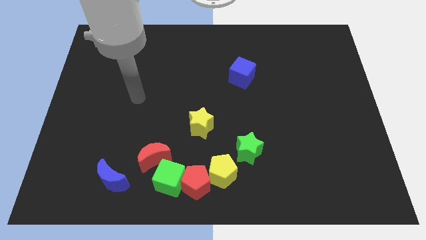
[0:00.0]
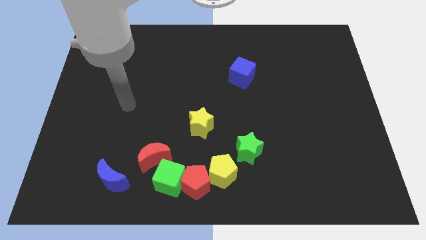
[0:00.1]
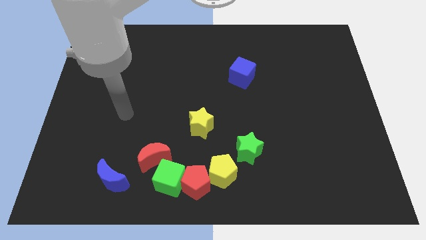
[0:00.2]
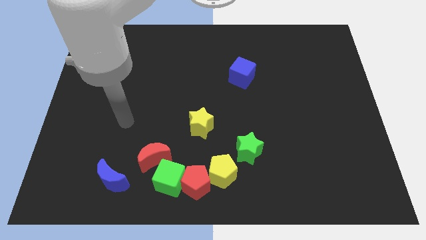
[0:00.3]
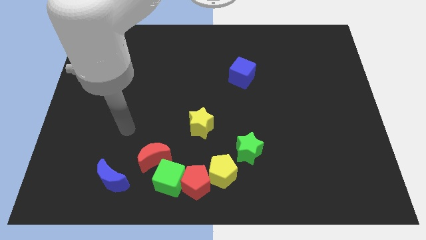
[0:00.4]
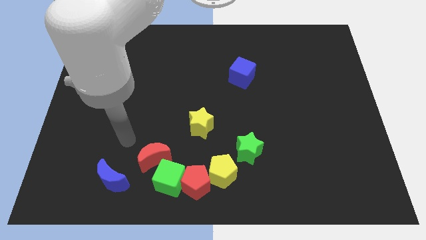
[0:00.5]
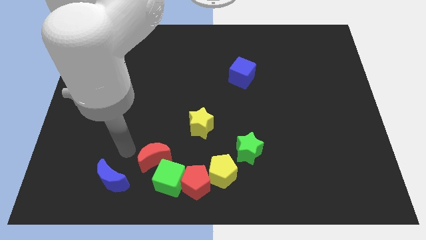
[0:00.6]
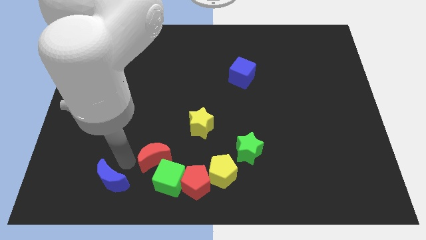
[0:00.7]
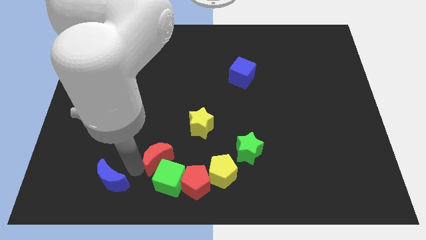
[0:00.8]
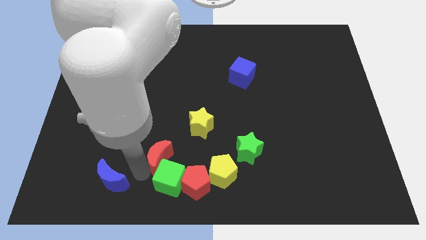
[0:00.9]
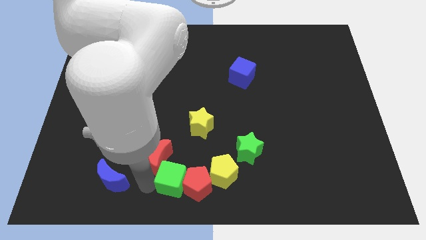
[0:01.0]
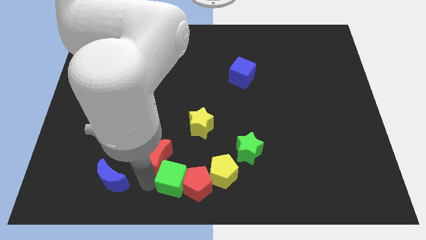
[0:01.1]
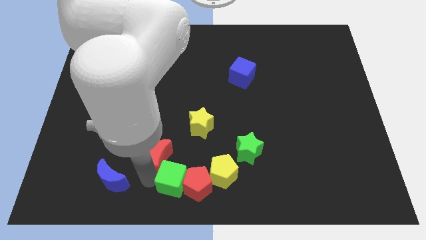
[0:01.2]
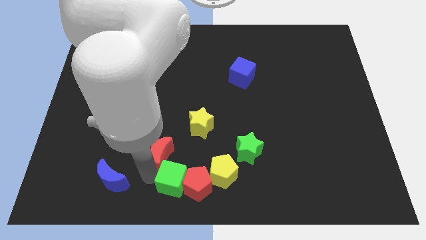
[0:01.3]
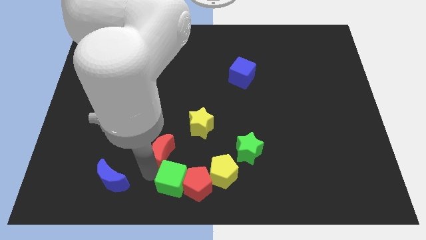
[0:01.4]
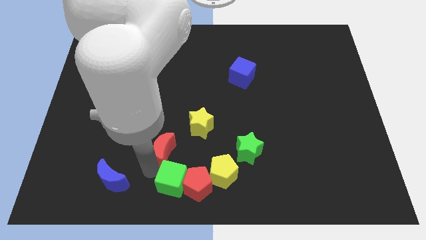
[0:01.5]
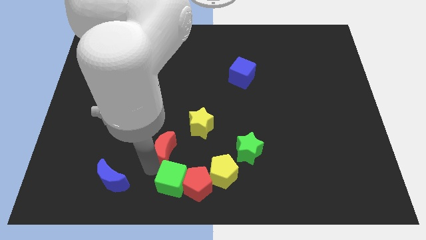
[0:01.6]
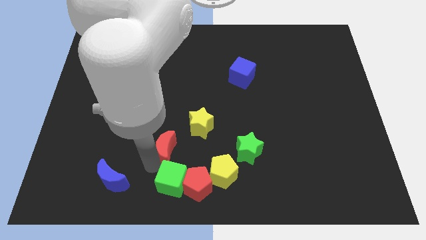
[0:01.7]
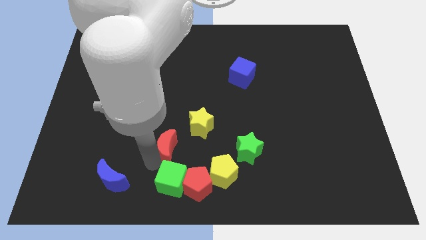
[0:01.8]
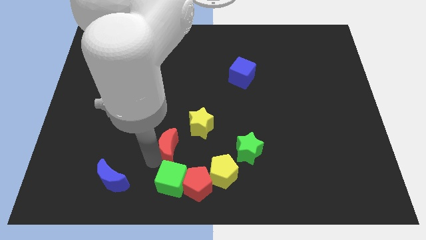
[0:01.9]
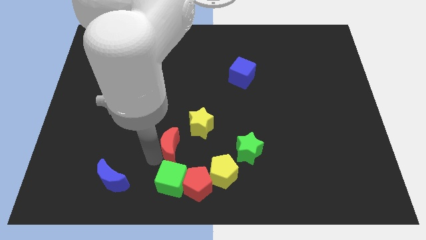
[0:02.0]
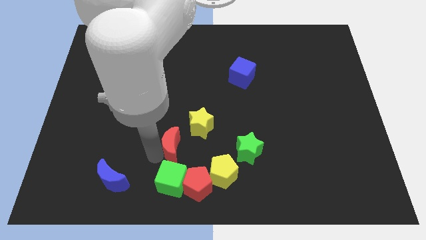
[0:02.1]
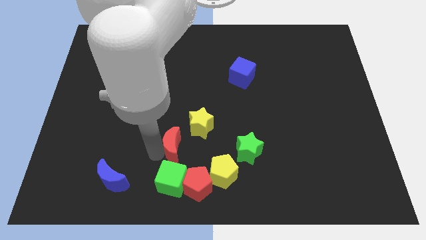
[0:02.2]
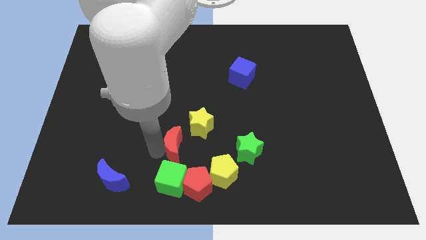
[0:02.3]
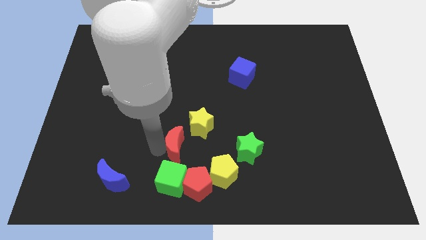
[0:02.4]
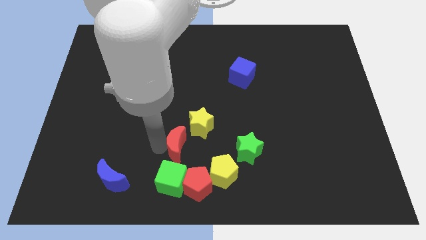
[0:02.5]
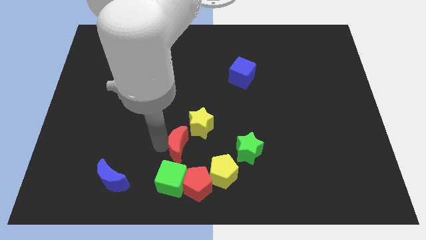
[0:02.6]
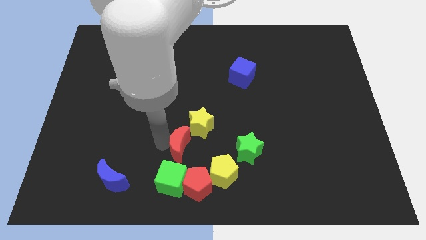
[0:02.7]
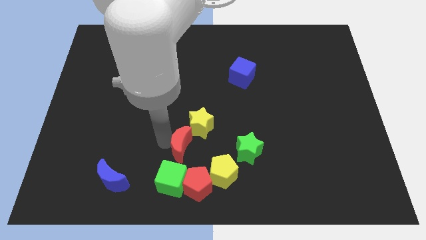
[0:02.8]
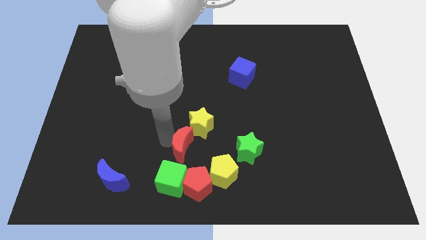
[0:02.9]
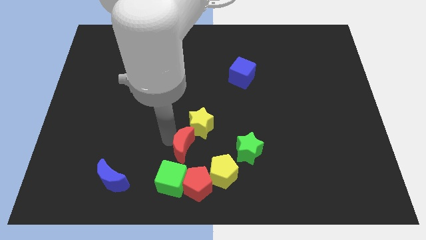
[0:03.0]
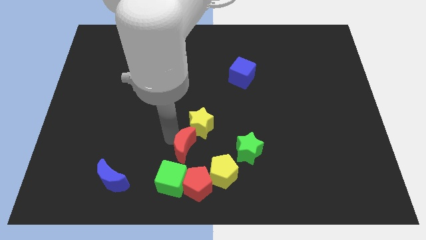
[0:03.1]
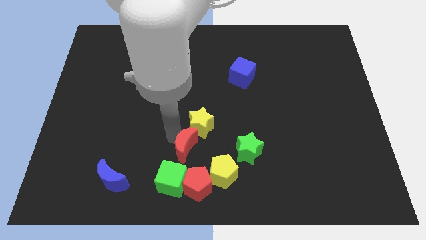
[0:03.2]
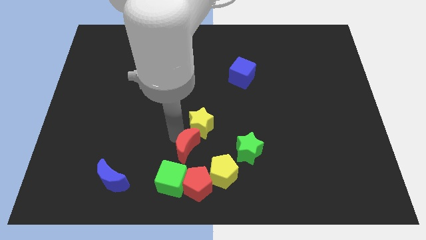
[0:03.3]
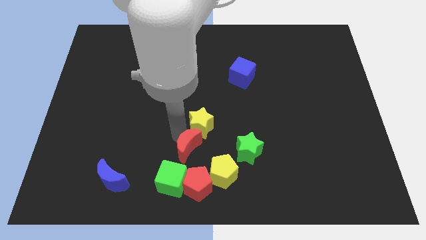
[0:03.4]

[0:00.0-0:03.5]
slightly push the red moon diagonally upwards and to the right

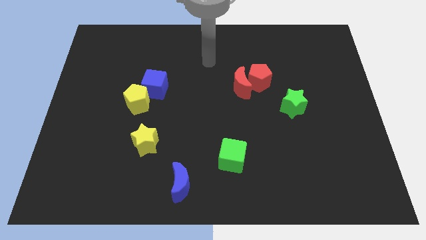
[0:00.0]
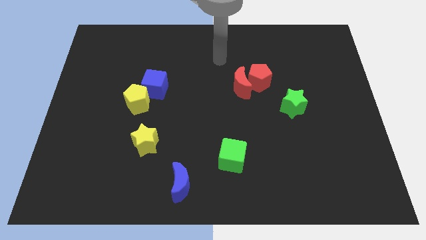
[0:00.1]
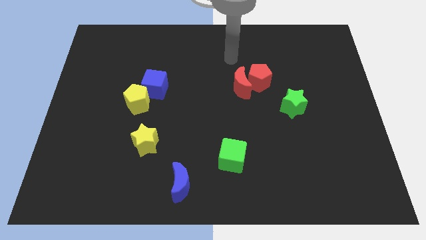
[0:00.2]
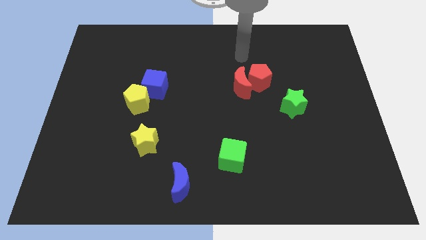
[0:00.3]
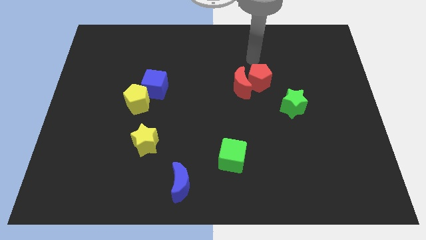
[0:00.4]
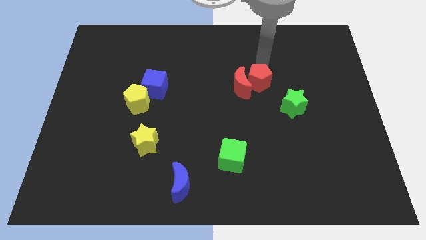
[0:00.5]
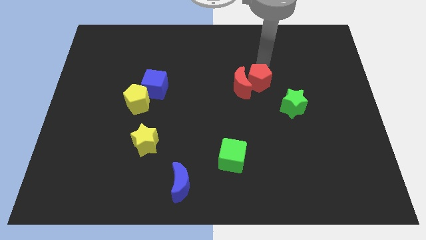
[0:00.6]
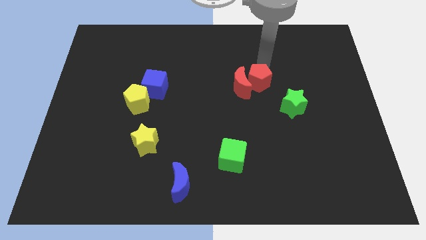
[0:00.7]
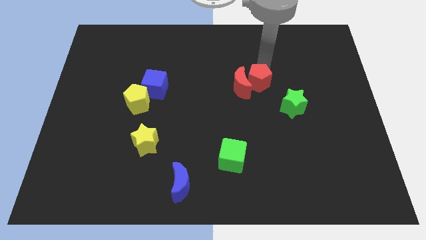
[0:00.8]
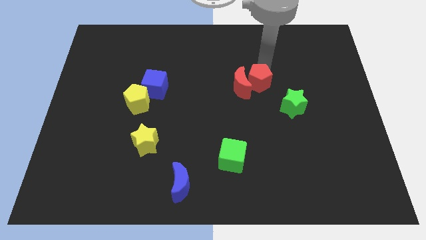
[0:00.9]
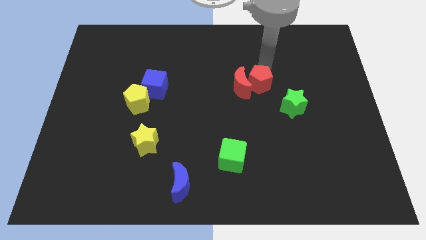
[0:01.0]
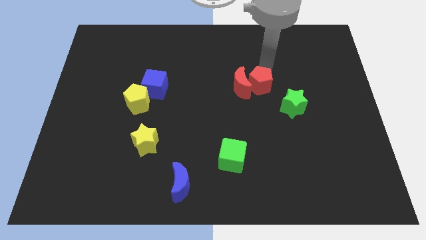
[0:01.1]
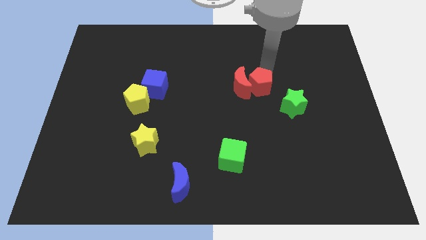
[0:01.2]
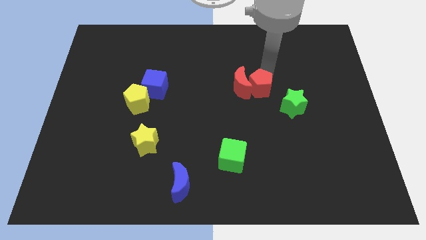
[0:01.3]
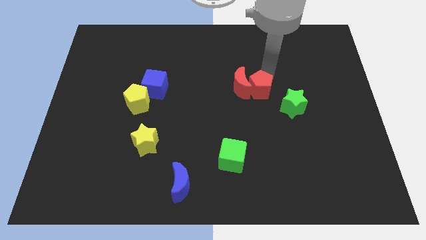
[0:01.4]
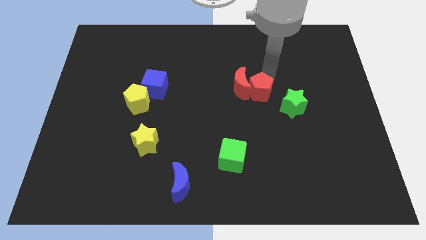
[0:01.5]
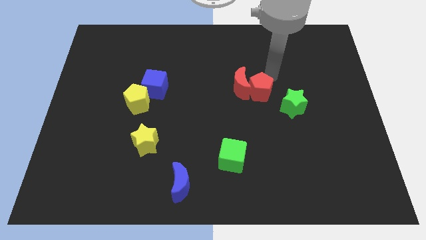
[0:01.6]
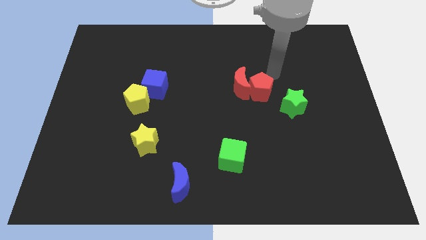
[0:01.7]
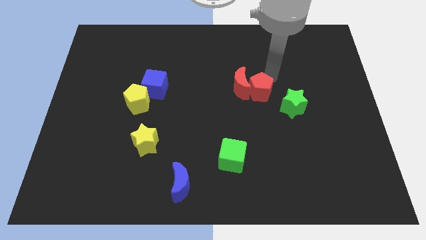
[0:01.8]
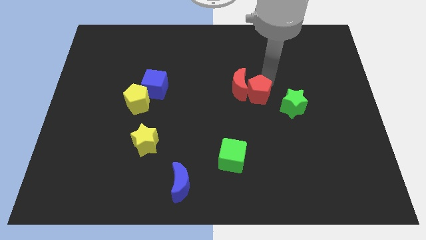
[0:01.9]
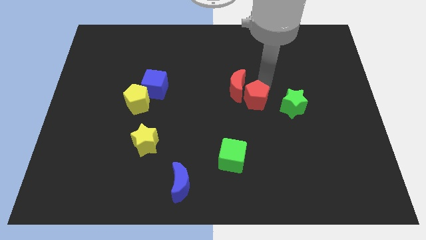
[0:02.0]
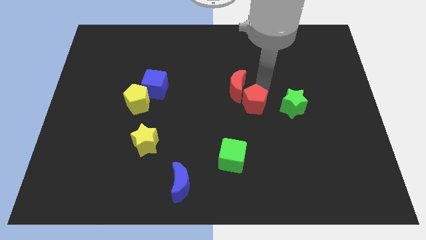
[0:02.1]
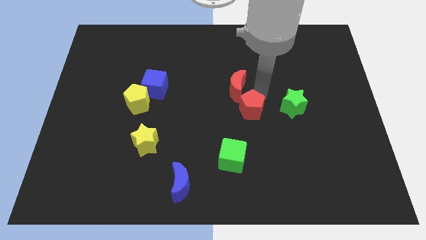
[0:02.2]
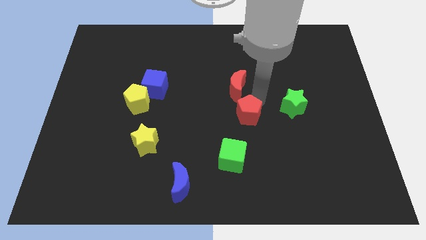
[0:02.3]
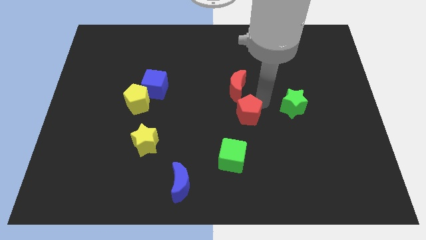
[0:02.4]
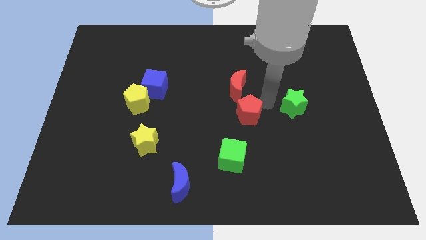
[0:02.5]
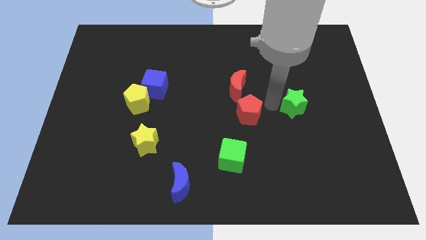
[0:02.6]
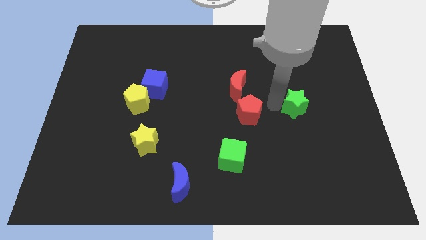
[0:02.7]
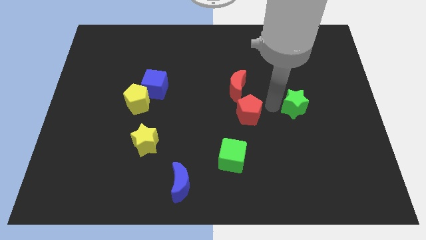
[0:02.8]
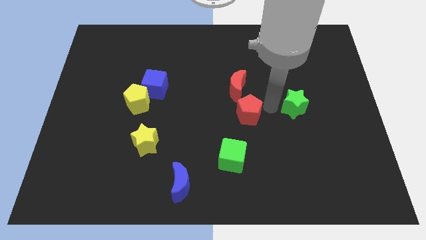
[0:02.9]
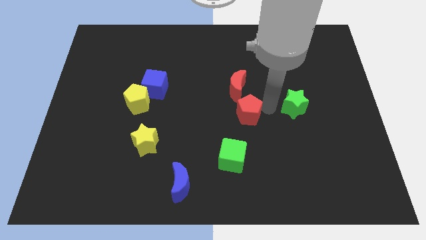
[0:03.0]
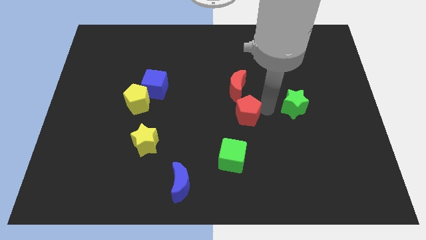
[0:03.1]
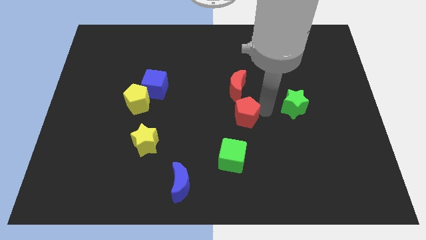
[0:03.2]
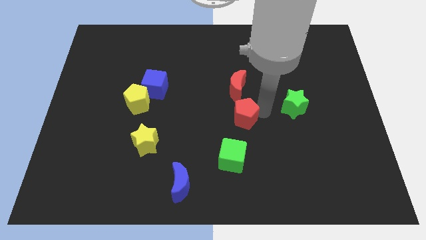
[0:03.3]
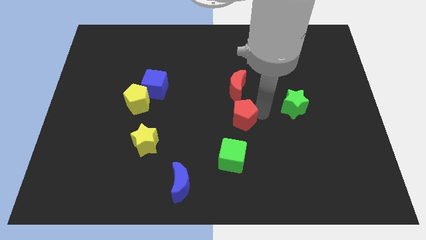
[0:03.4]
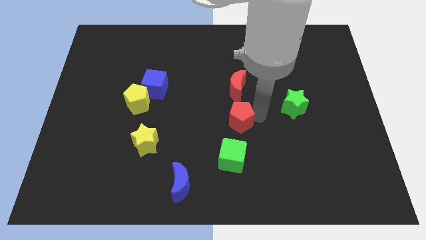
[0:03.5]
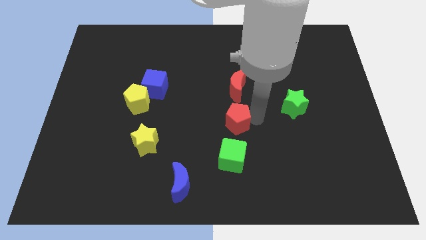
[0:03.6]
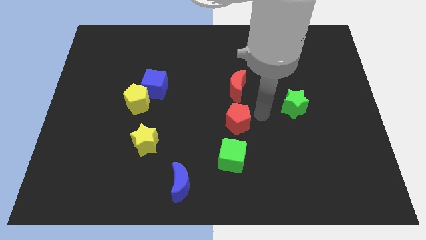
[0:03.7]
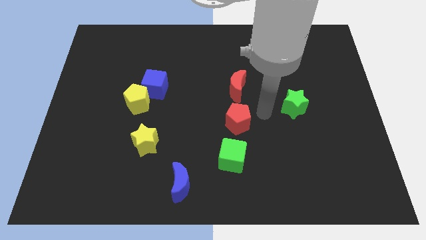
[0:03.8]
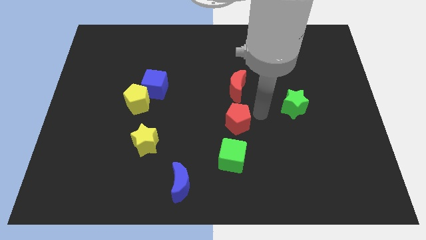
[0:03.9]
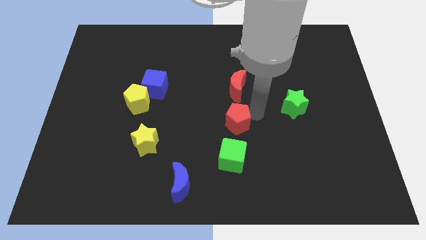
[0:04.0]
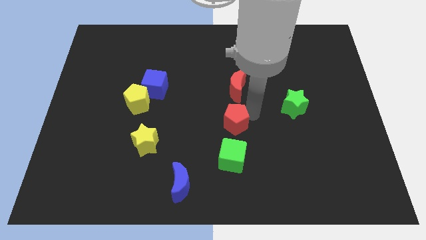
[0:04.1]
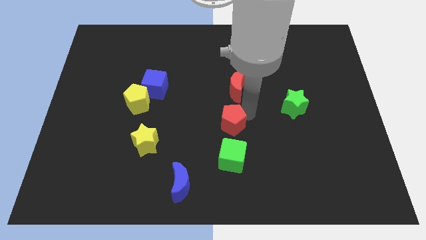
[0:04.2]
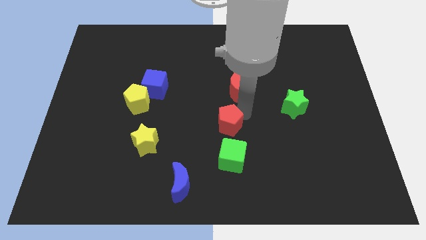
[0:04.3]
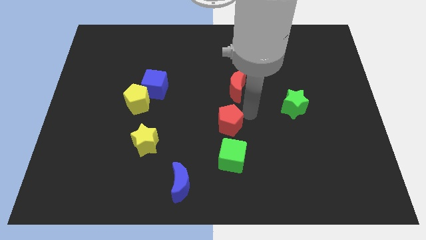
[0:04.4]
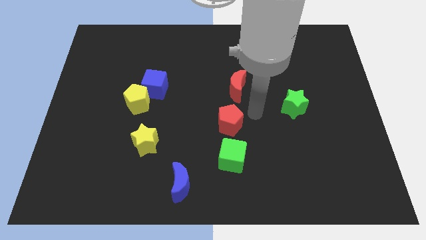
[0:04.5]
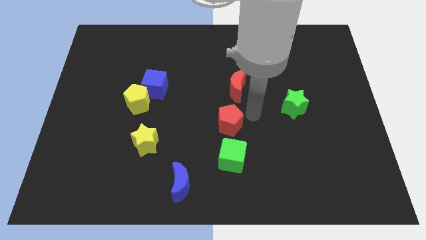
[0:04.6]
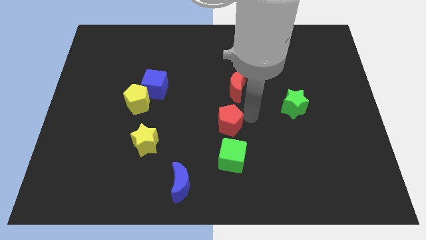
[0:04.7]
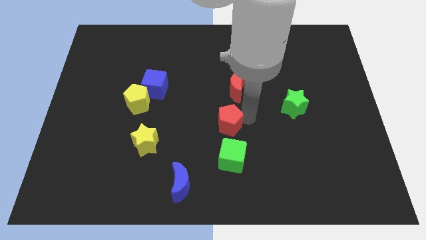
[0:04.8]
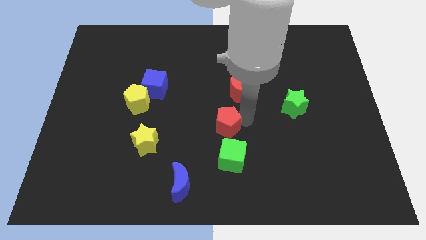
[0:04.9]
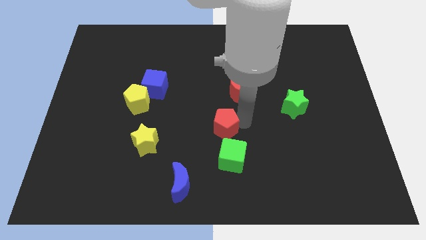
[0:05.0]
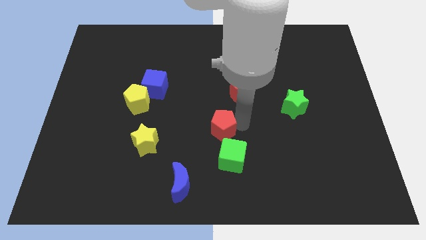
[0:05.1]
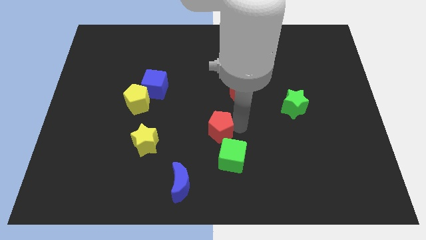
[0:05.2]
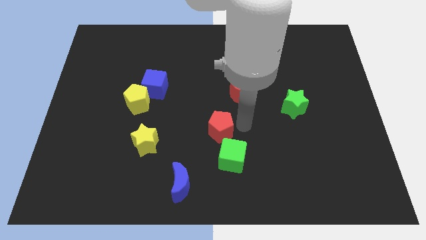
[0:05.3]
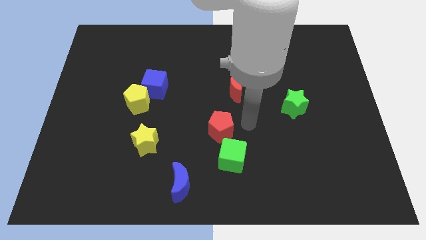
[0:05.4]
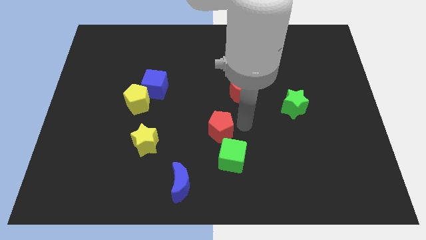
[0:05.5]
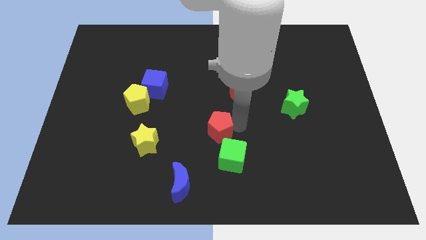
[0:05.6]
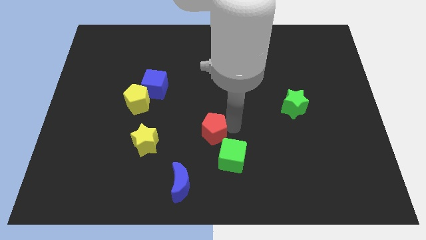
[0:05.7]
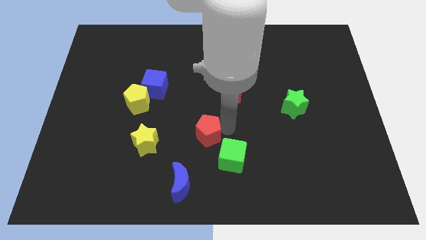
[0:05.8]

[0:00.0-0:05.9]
push the red pentagon down and left
